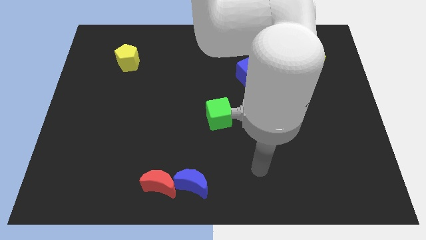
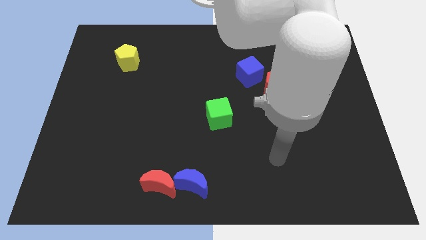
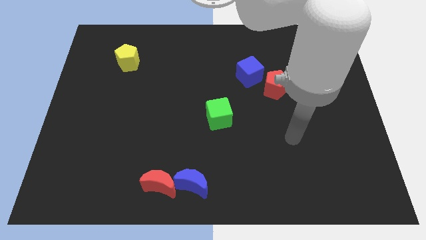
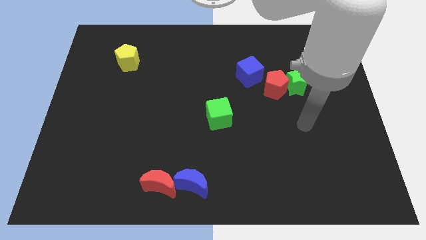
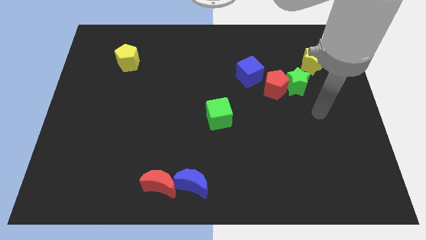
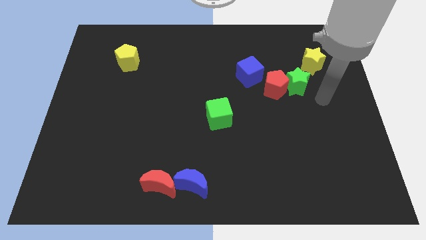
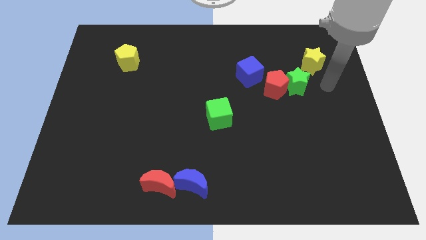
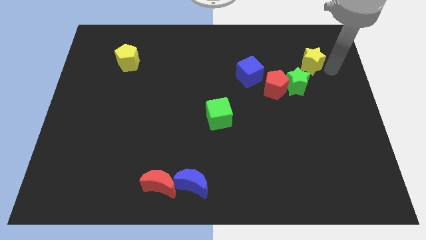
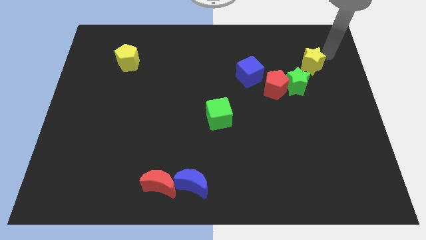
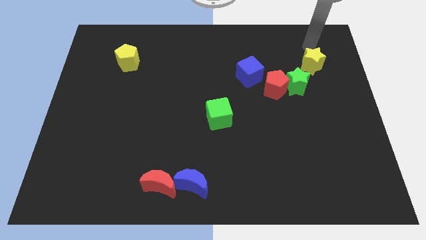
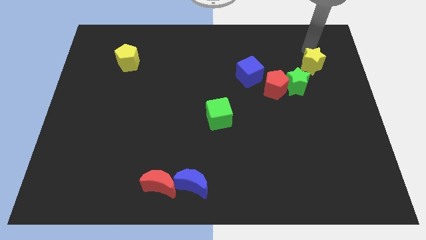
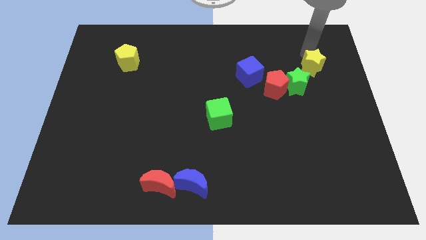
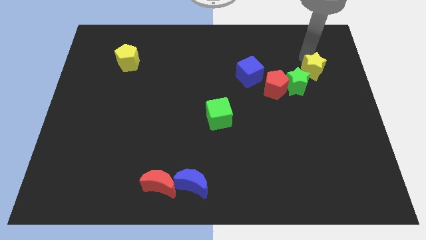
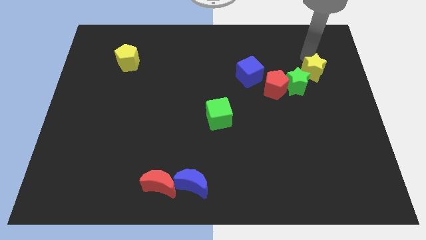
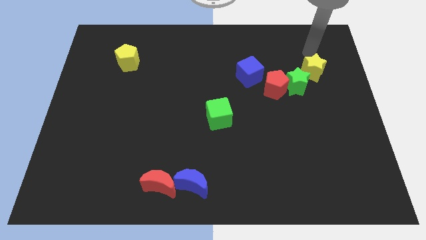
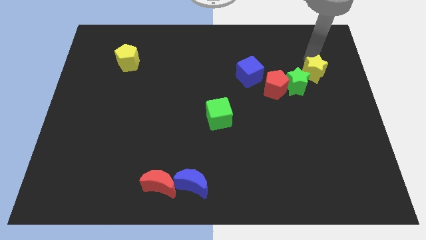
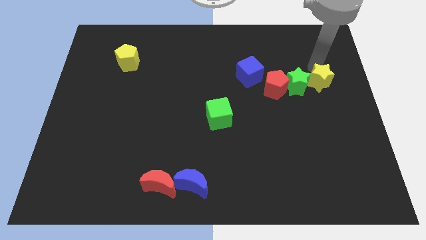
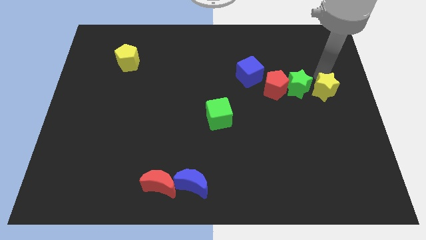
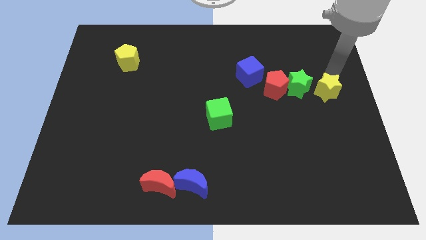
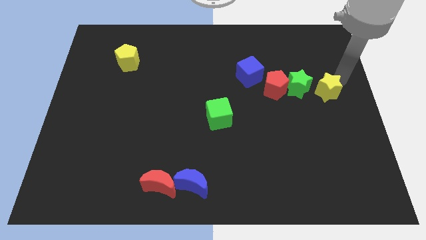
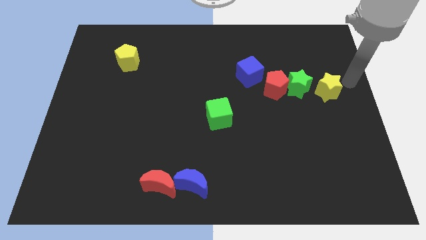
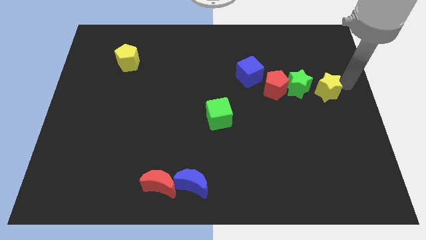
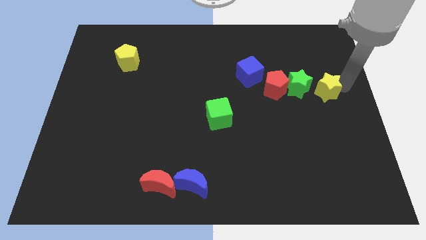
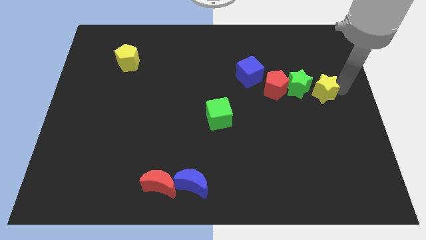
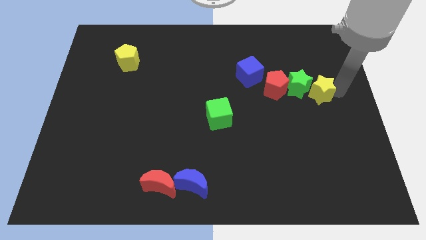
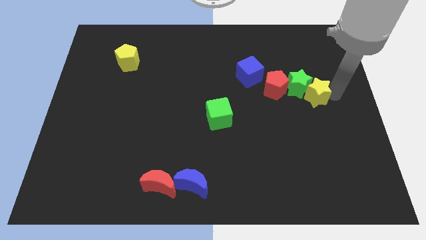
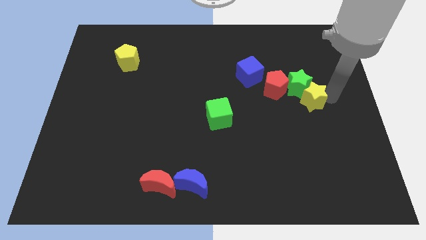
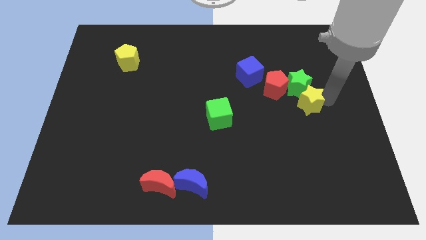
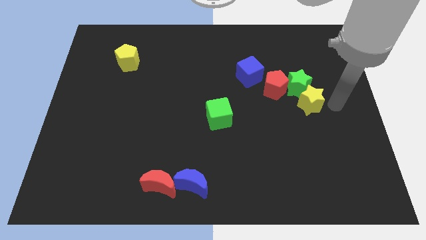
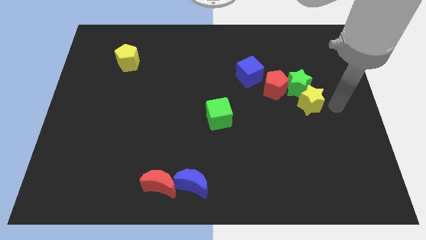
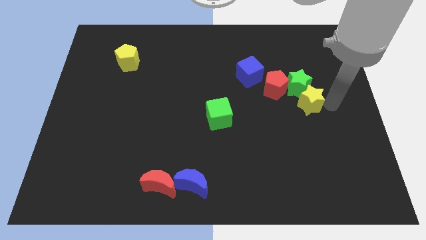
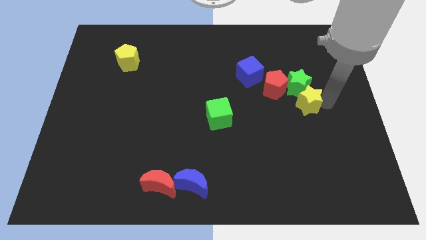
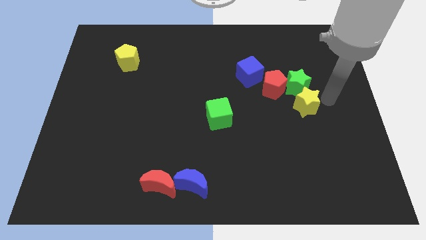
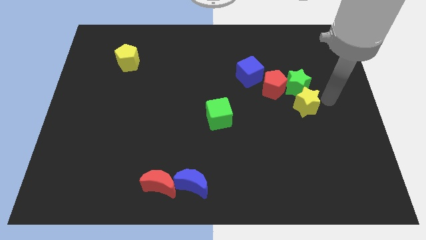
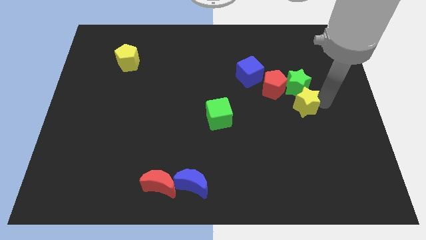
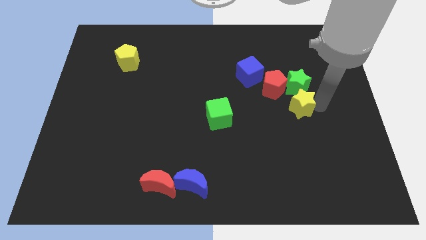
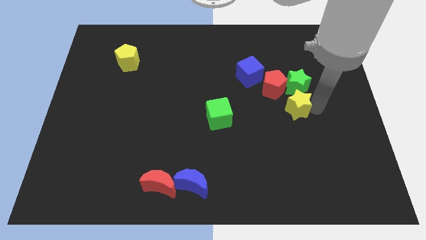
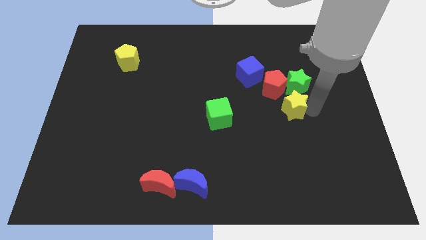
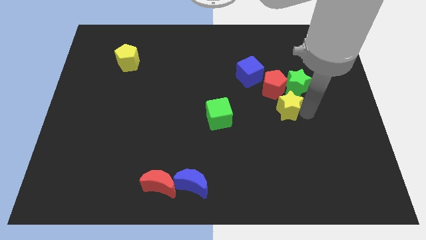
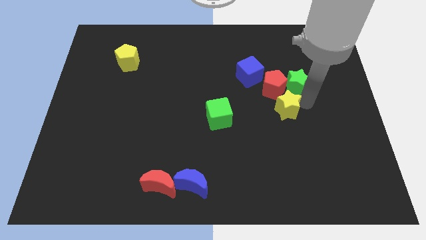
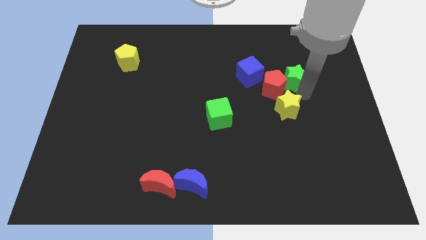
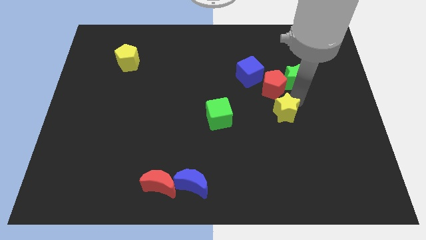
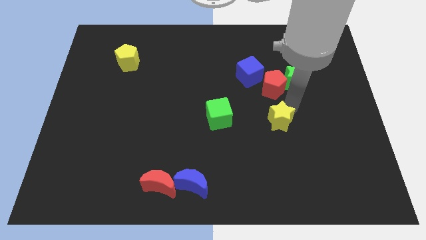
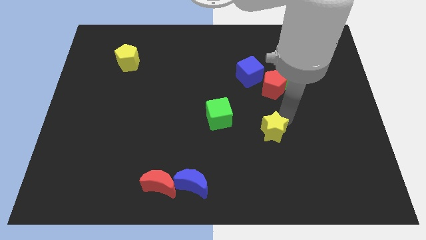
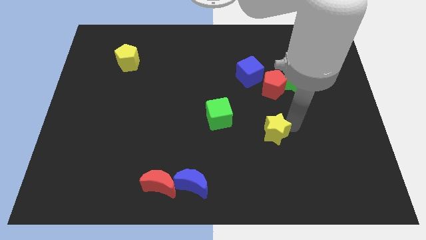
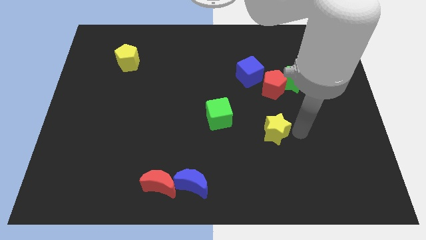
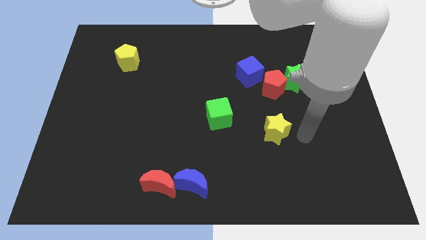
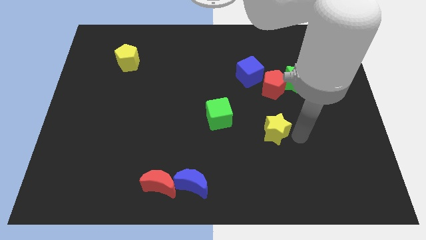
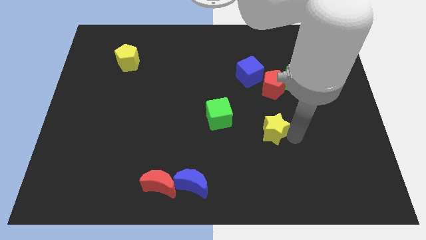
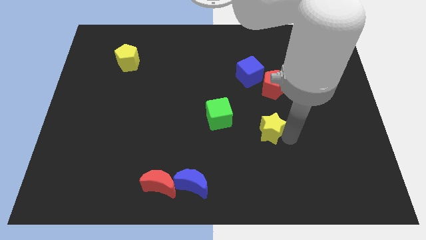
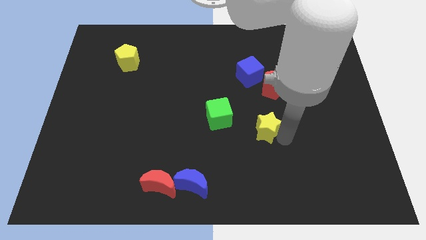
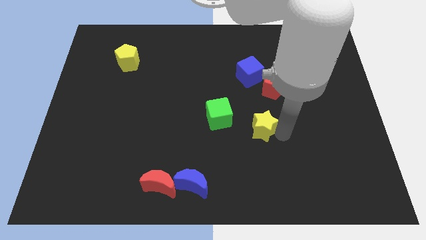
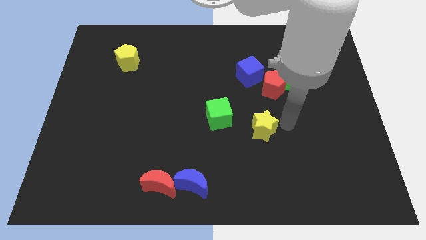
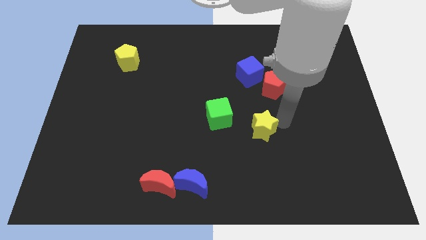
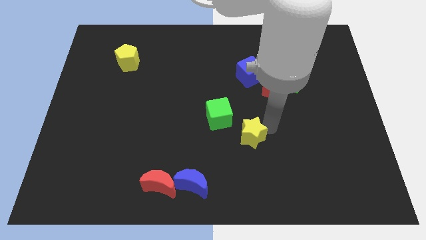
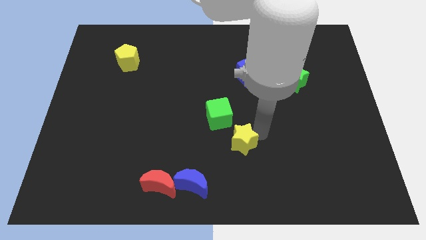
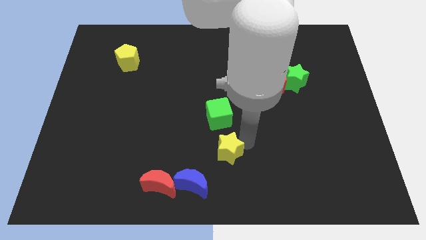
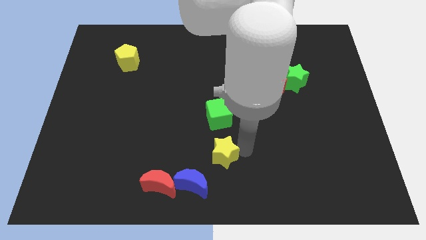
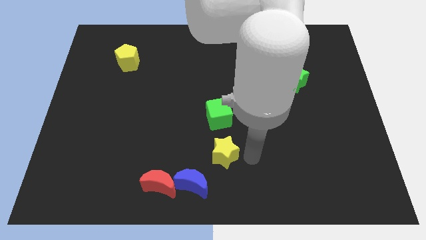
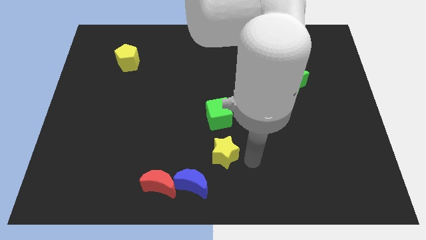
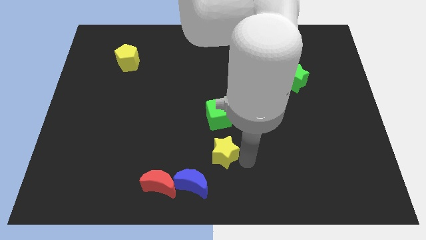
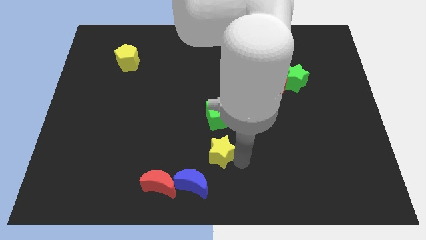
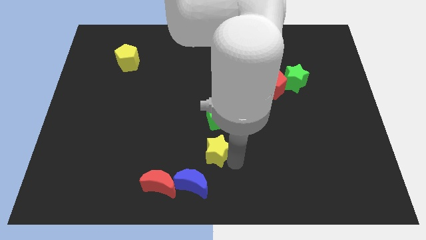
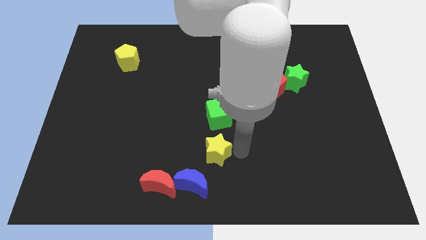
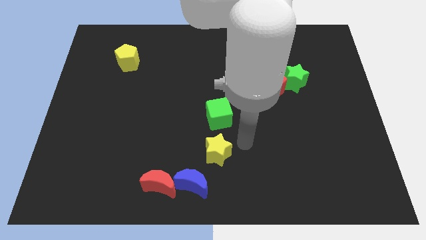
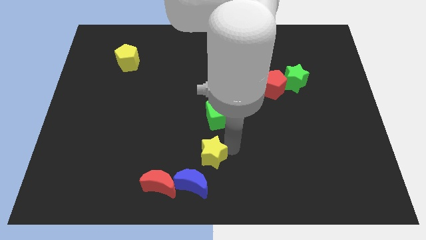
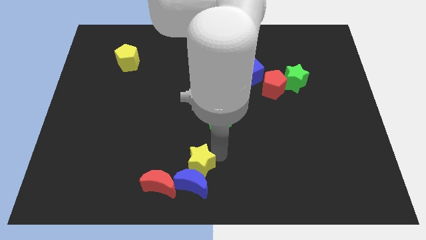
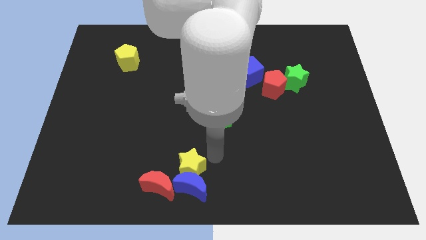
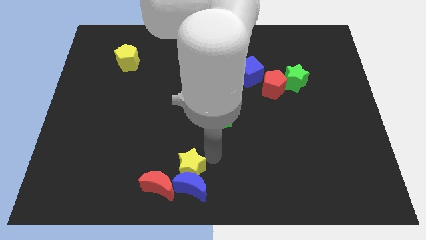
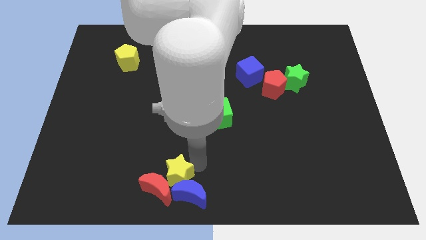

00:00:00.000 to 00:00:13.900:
put the yellow star next to the red moon
